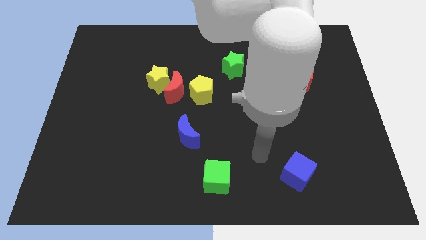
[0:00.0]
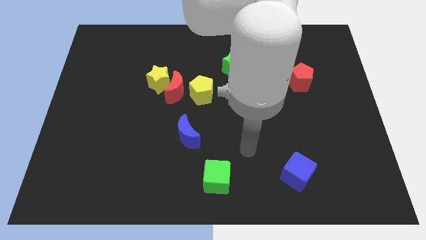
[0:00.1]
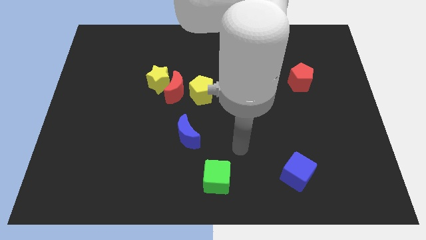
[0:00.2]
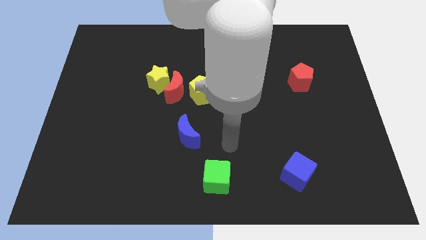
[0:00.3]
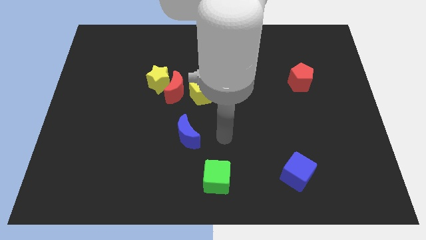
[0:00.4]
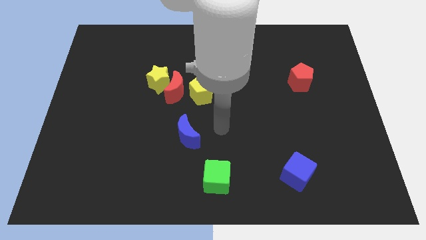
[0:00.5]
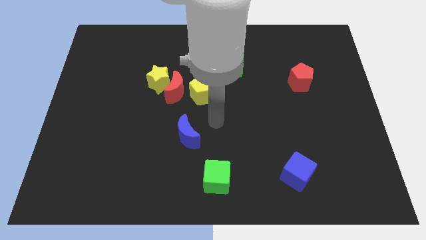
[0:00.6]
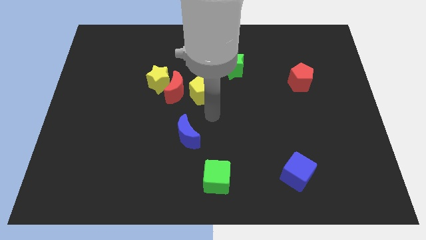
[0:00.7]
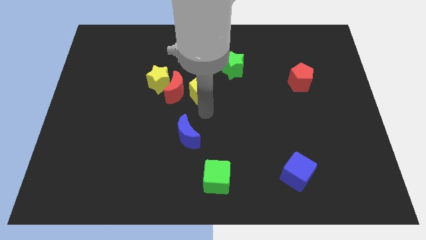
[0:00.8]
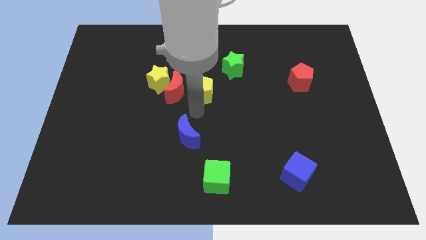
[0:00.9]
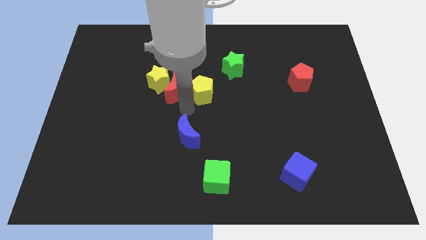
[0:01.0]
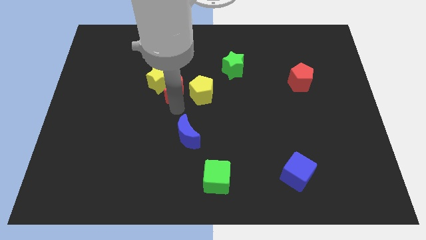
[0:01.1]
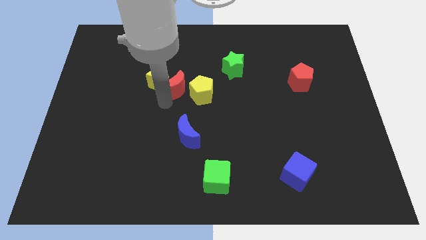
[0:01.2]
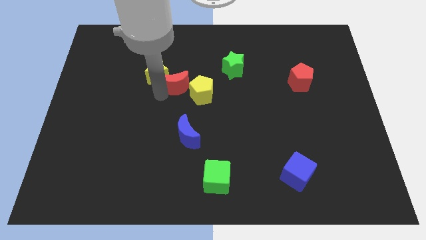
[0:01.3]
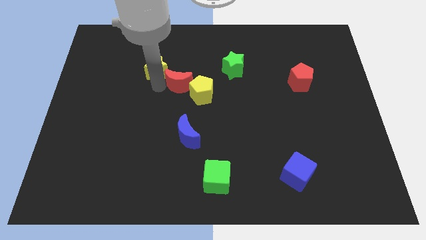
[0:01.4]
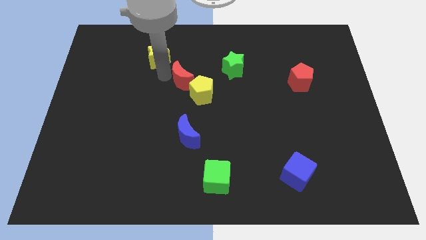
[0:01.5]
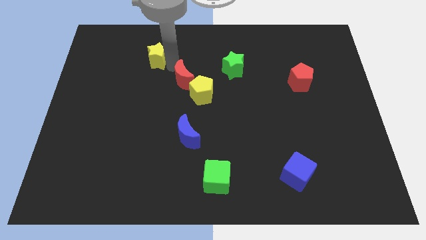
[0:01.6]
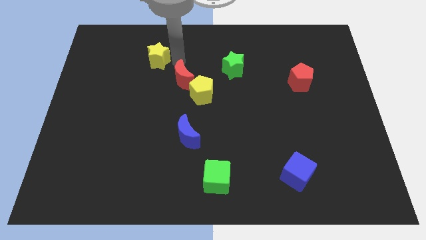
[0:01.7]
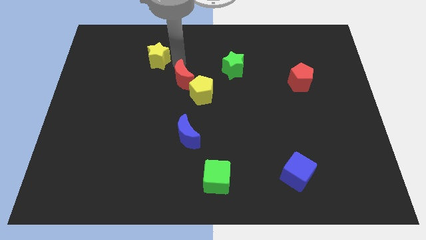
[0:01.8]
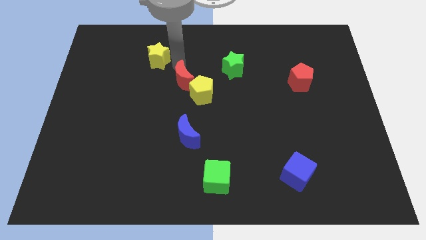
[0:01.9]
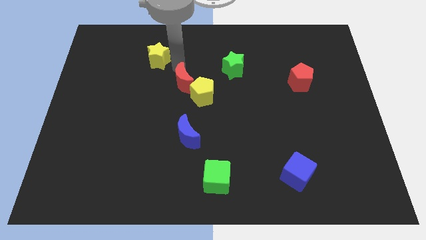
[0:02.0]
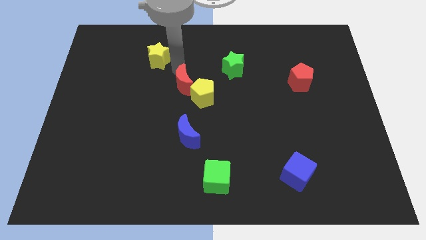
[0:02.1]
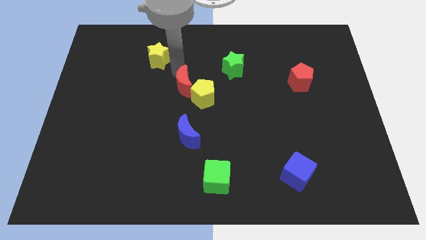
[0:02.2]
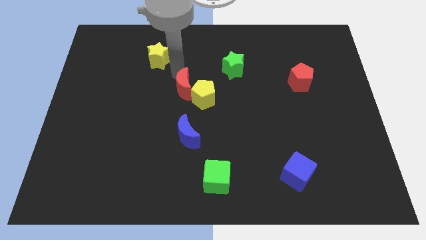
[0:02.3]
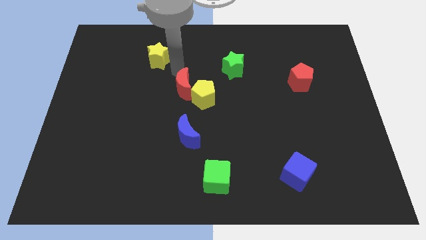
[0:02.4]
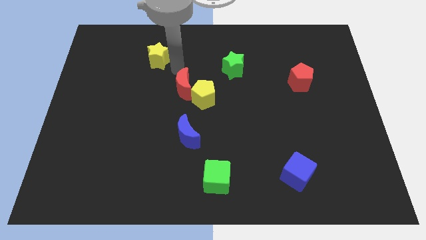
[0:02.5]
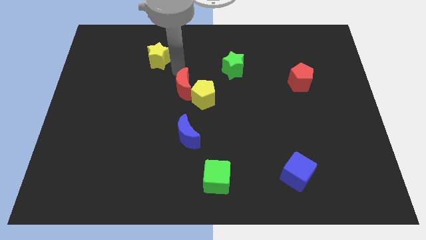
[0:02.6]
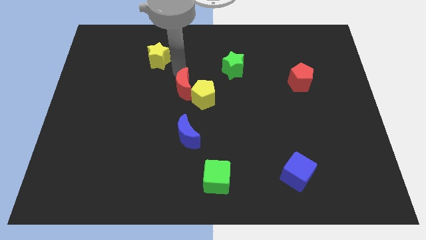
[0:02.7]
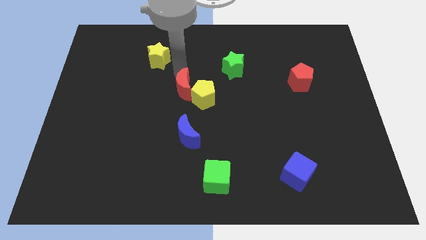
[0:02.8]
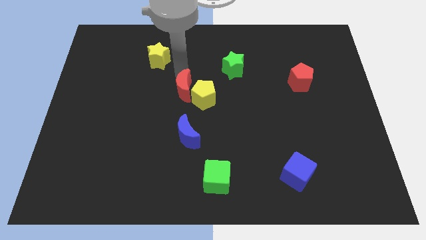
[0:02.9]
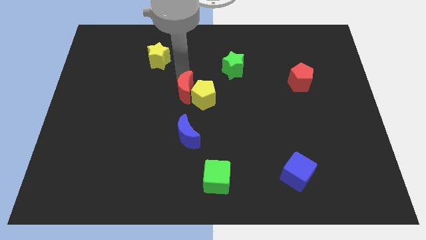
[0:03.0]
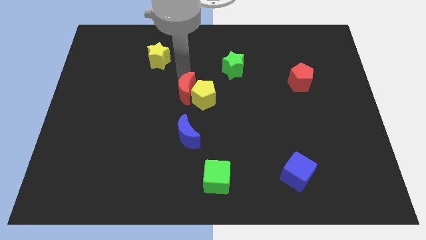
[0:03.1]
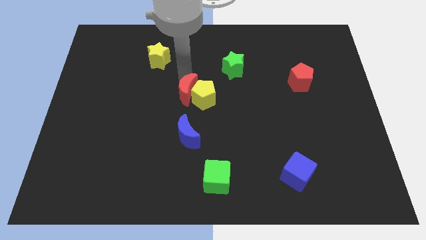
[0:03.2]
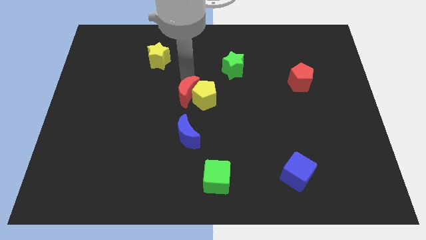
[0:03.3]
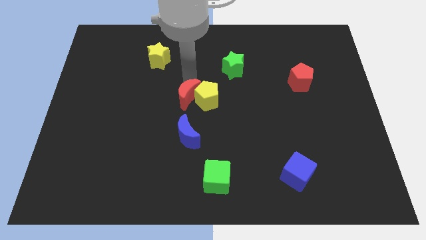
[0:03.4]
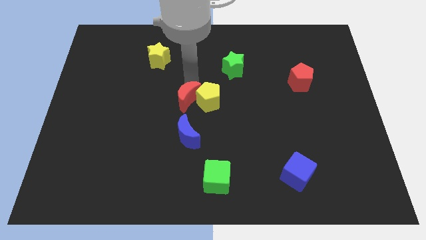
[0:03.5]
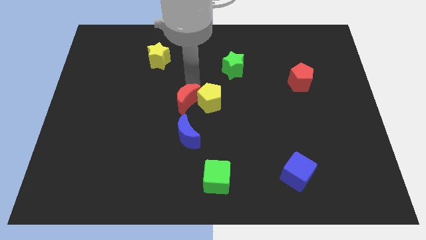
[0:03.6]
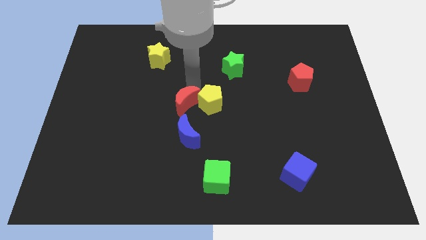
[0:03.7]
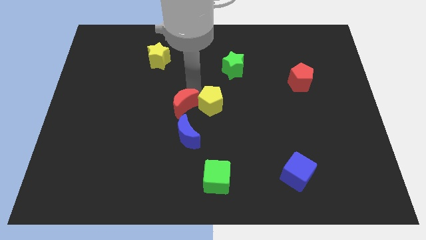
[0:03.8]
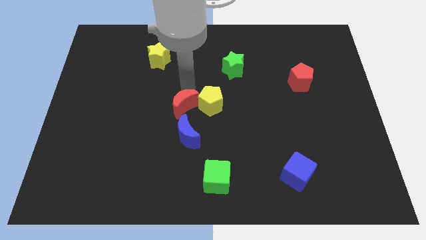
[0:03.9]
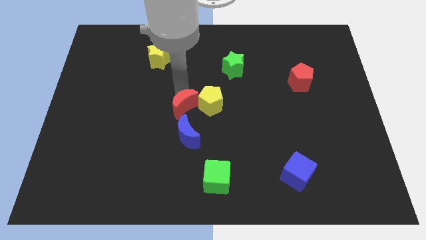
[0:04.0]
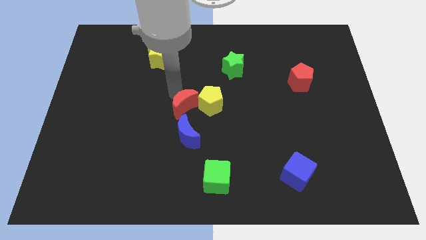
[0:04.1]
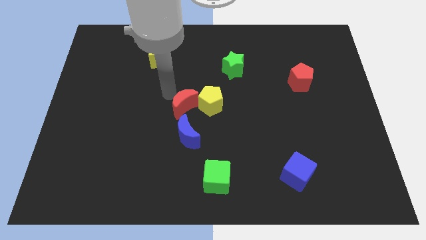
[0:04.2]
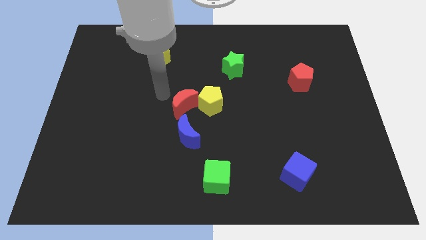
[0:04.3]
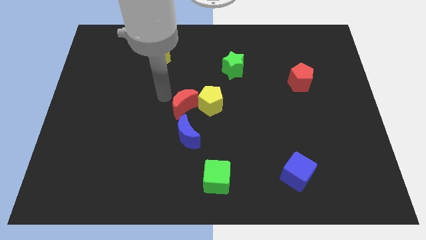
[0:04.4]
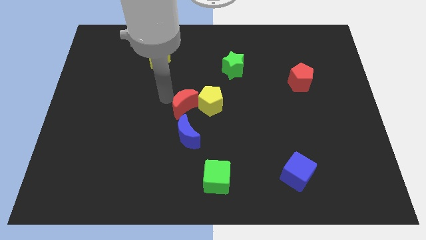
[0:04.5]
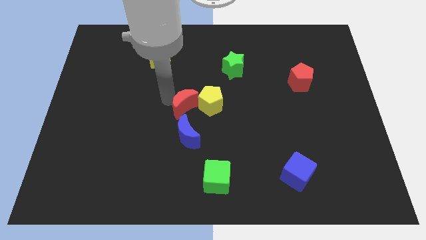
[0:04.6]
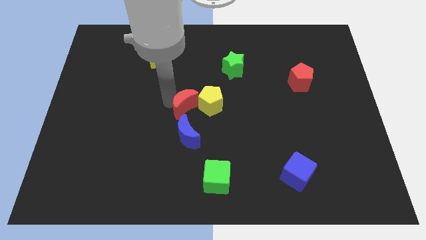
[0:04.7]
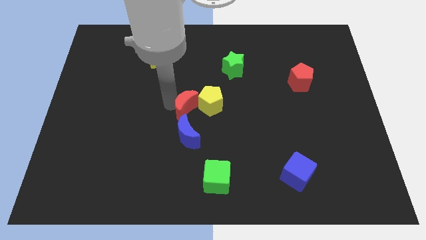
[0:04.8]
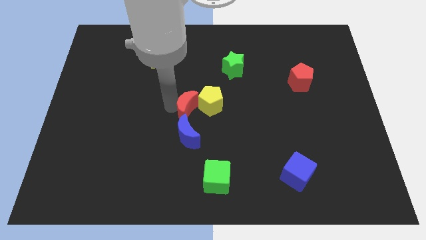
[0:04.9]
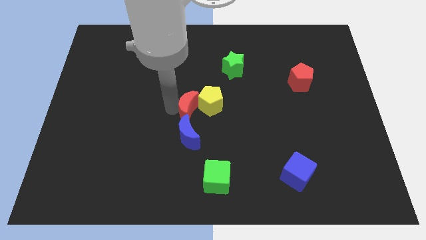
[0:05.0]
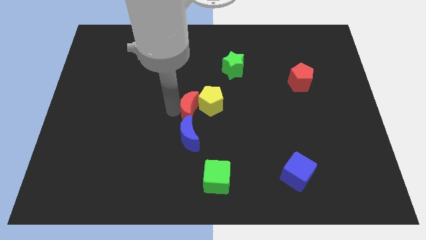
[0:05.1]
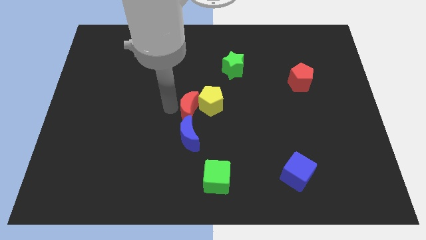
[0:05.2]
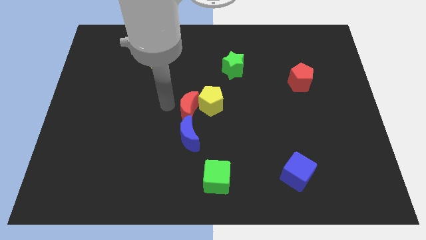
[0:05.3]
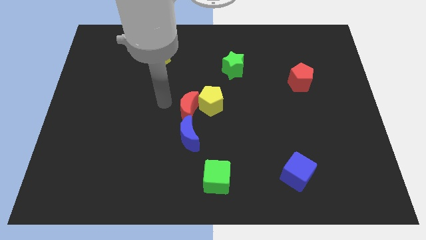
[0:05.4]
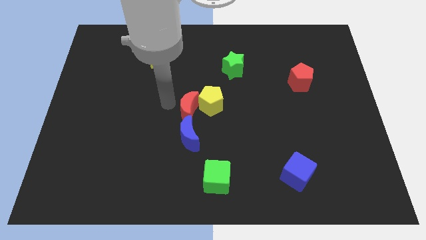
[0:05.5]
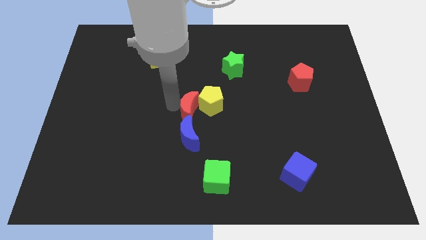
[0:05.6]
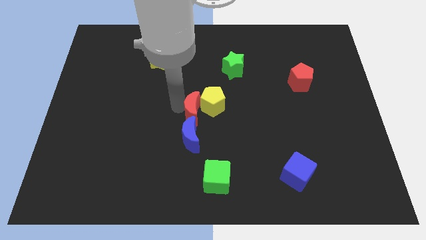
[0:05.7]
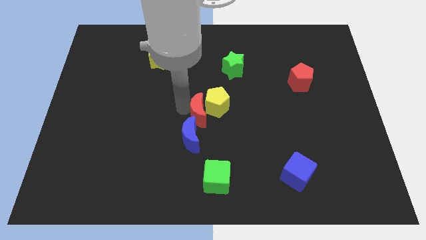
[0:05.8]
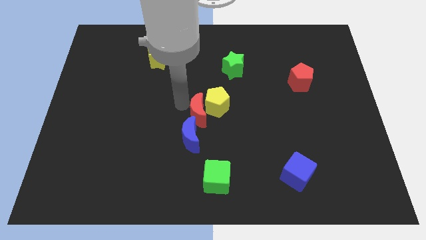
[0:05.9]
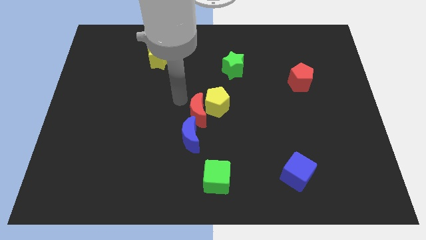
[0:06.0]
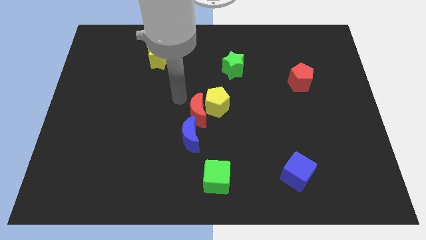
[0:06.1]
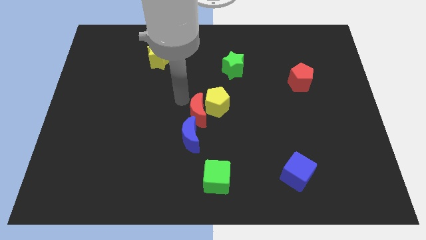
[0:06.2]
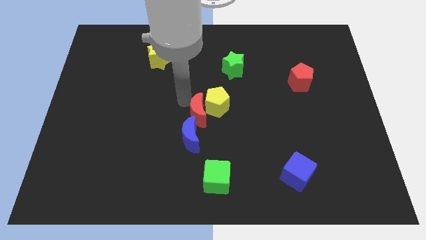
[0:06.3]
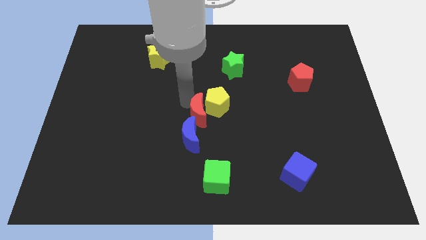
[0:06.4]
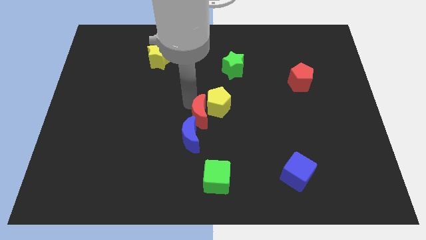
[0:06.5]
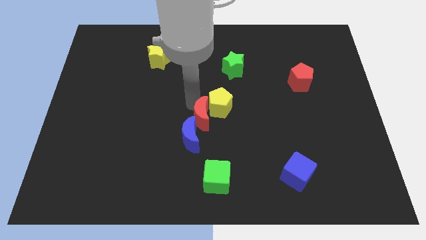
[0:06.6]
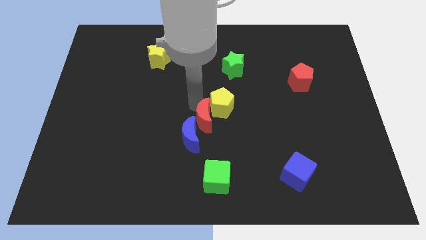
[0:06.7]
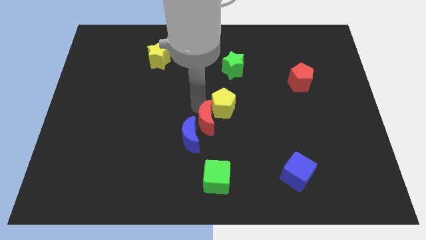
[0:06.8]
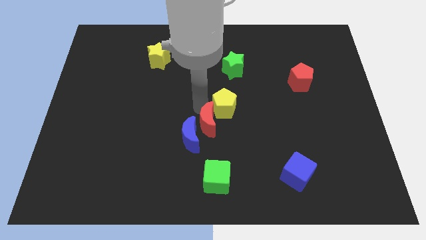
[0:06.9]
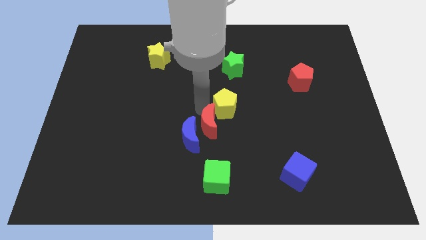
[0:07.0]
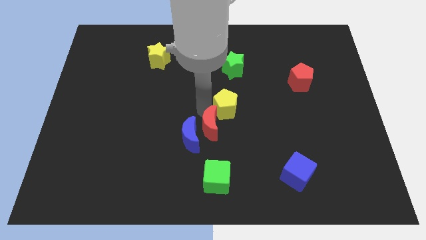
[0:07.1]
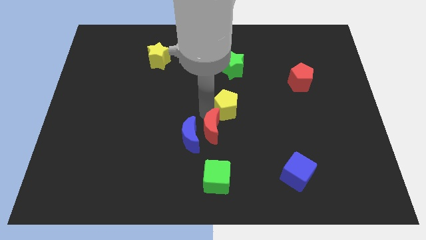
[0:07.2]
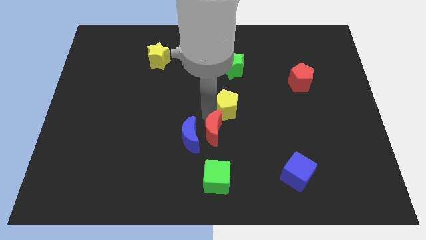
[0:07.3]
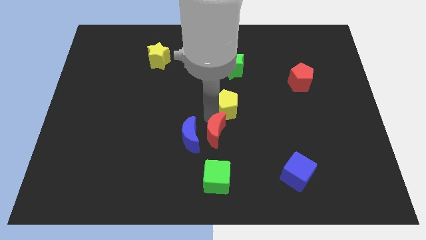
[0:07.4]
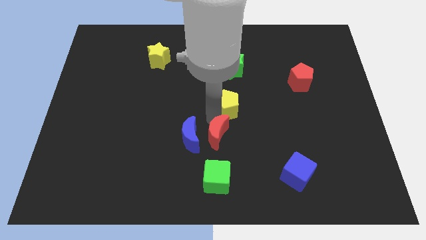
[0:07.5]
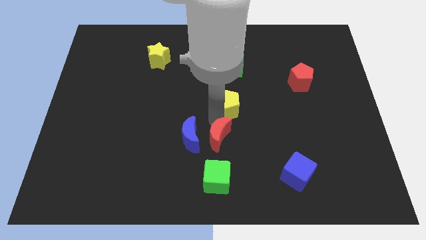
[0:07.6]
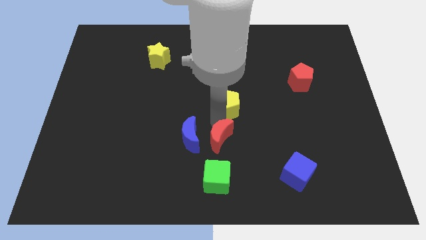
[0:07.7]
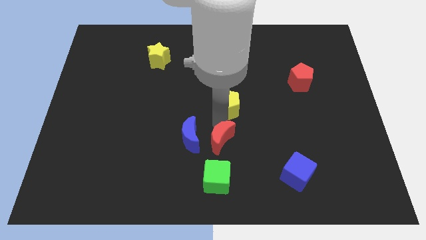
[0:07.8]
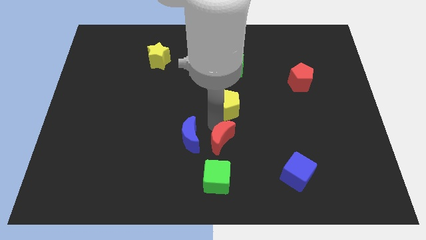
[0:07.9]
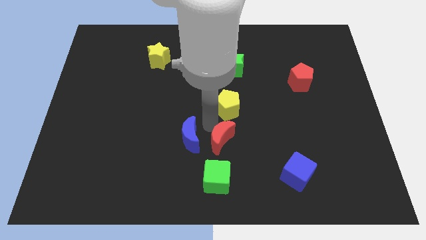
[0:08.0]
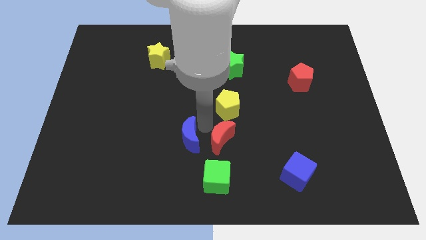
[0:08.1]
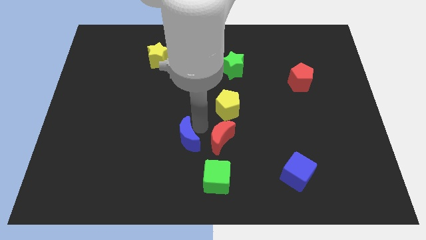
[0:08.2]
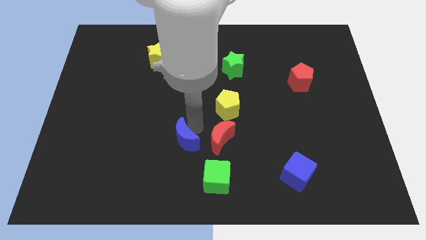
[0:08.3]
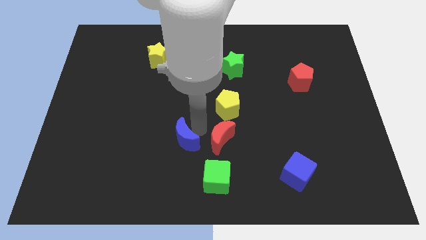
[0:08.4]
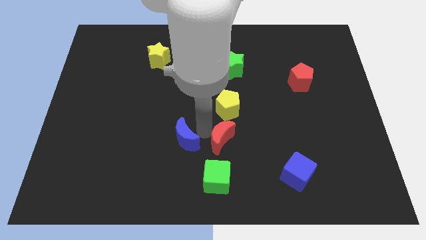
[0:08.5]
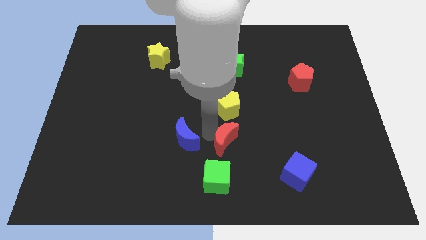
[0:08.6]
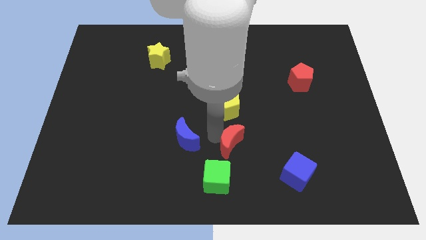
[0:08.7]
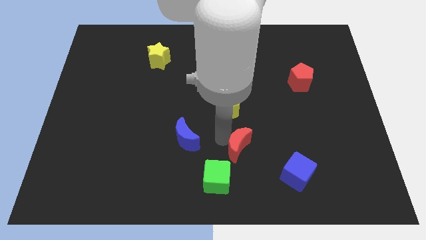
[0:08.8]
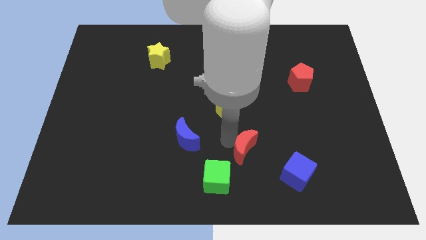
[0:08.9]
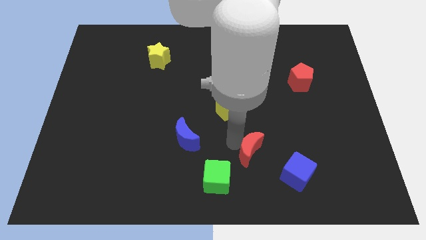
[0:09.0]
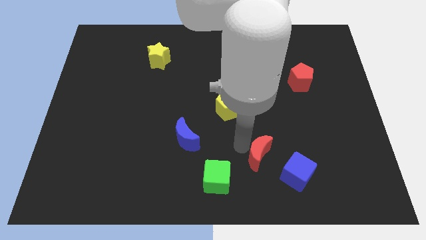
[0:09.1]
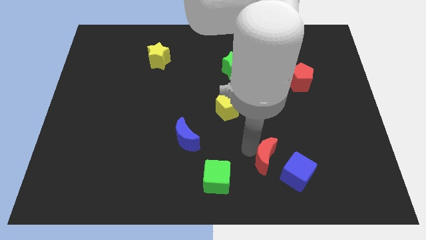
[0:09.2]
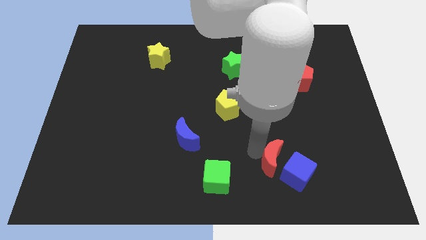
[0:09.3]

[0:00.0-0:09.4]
slide the red moon towards the blue cube
